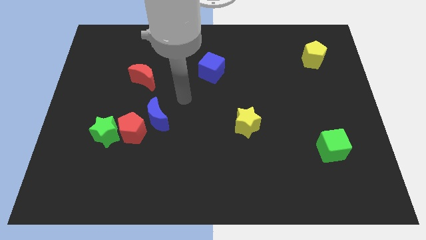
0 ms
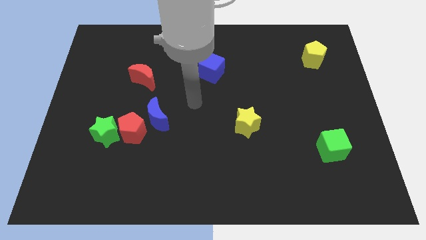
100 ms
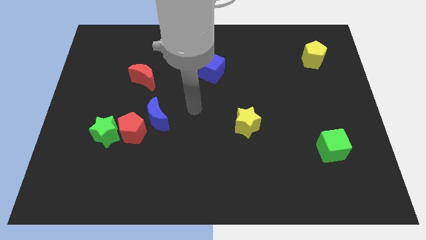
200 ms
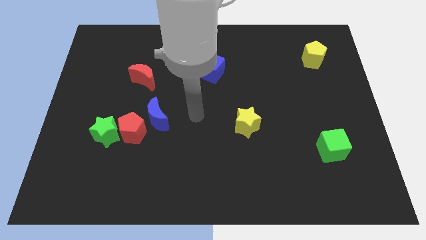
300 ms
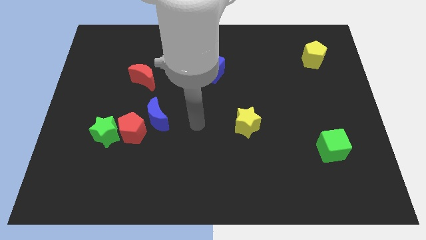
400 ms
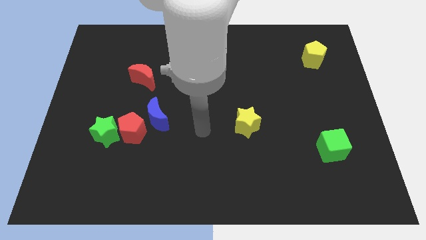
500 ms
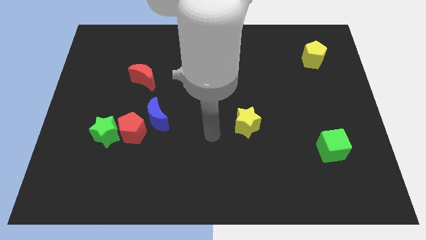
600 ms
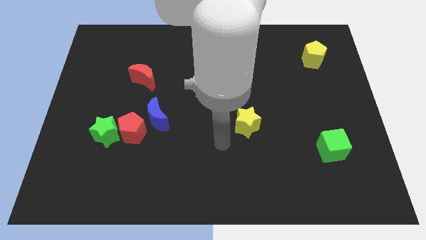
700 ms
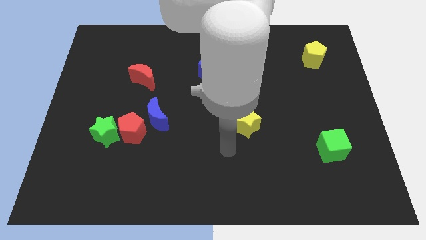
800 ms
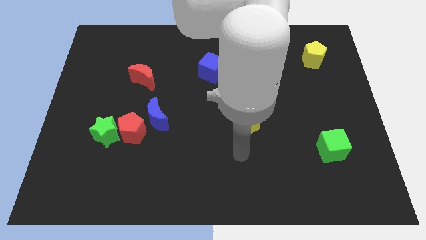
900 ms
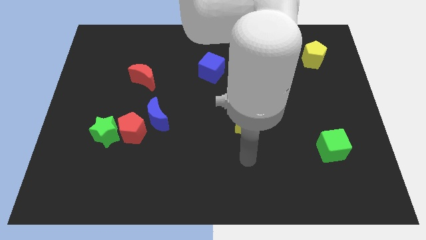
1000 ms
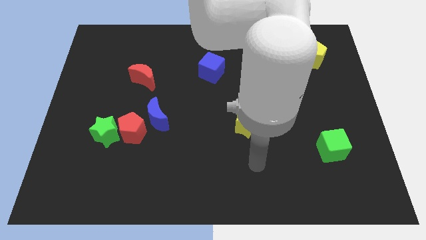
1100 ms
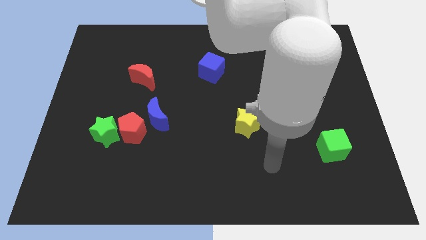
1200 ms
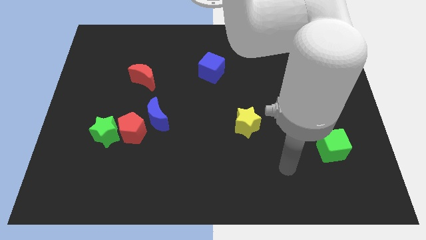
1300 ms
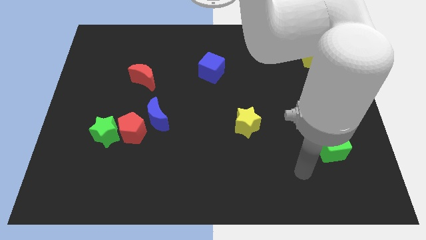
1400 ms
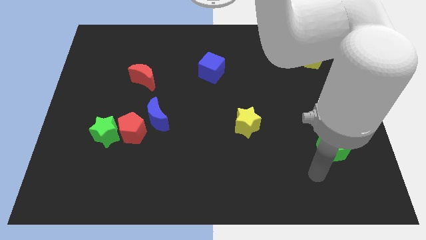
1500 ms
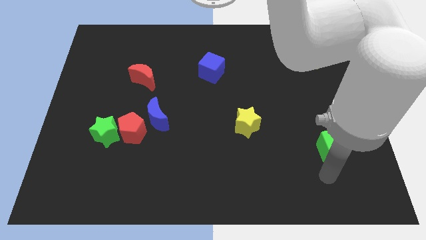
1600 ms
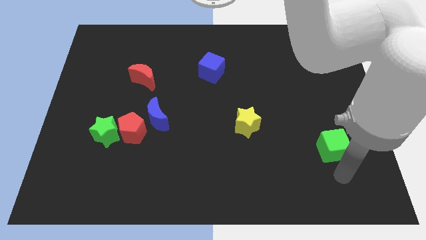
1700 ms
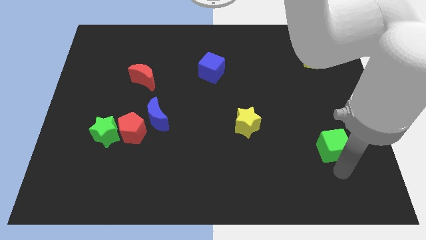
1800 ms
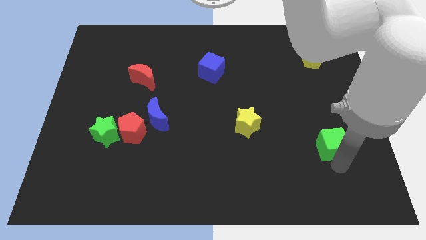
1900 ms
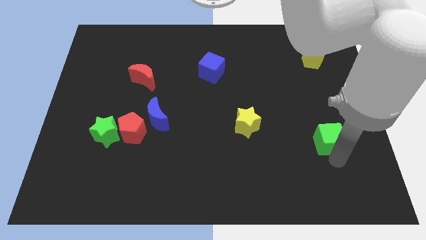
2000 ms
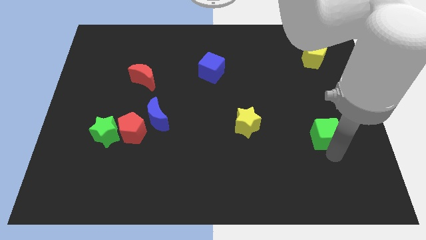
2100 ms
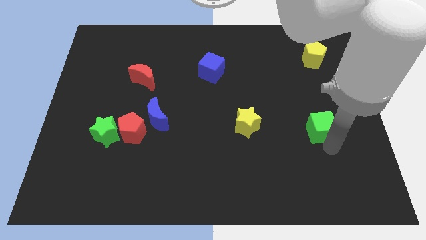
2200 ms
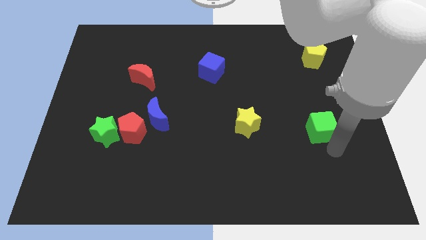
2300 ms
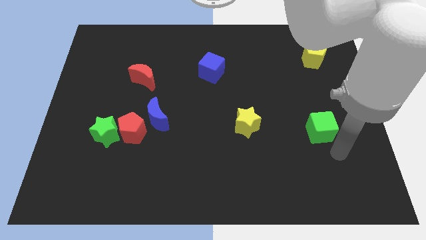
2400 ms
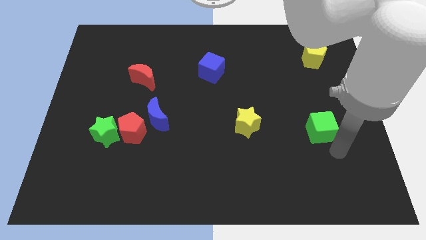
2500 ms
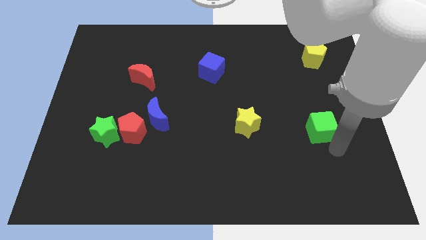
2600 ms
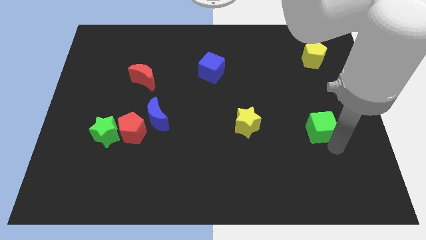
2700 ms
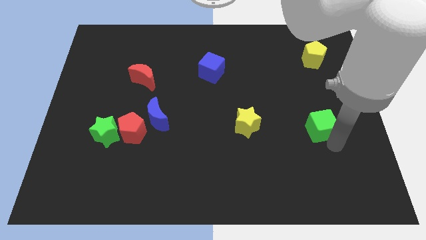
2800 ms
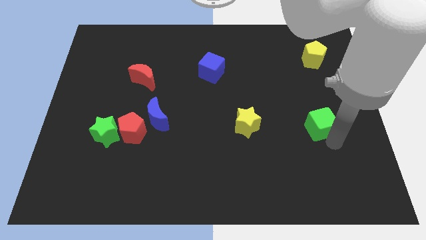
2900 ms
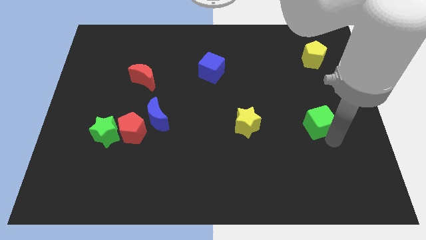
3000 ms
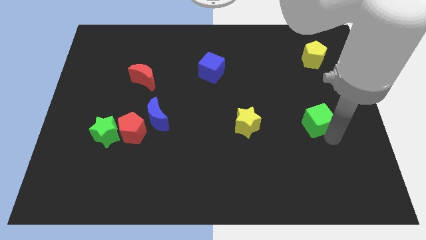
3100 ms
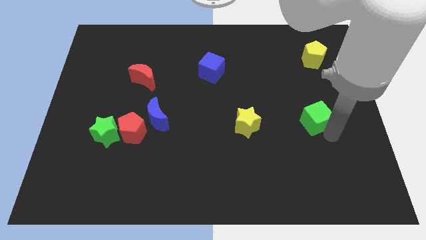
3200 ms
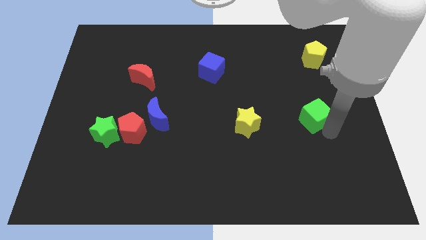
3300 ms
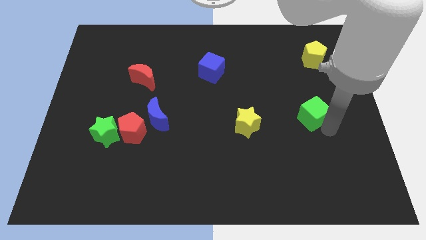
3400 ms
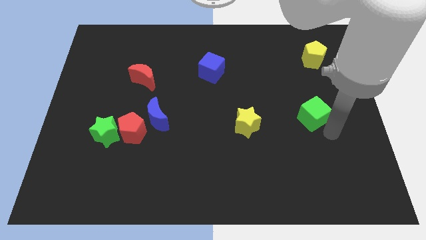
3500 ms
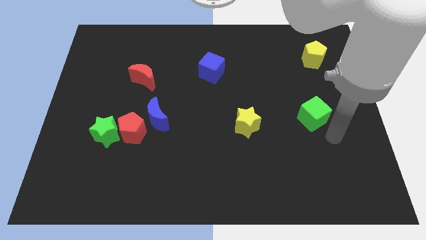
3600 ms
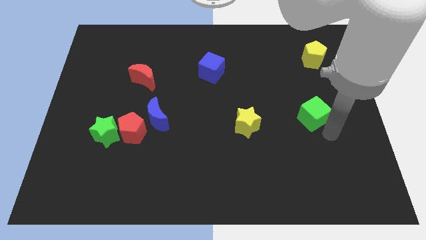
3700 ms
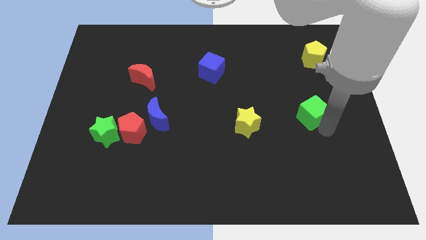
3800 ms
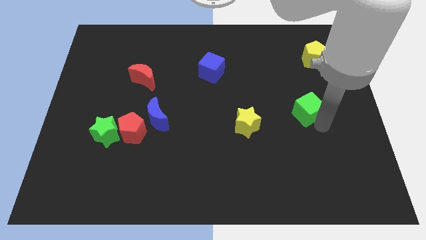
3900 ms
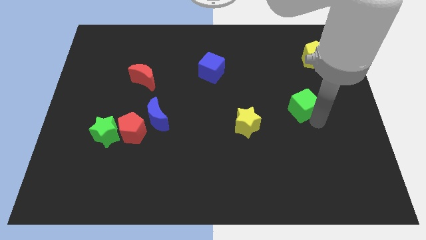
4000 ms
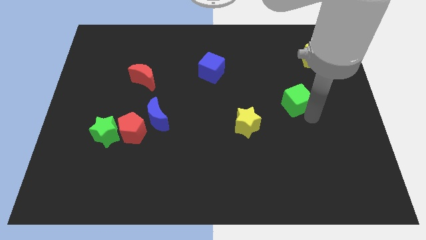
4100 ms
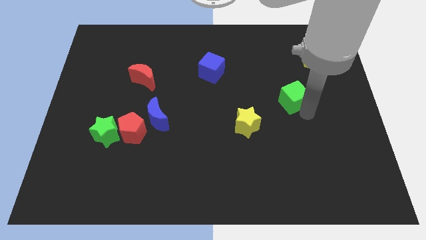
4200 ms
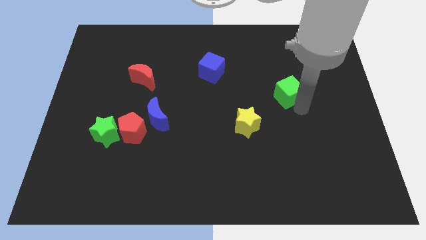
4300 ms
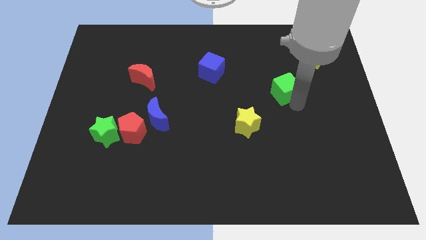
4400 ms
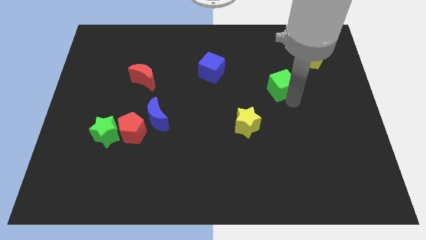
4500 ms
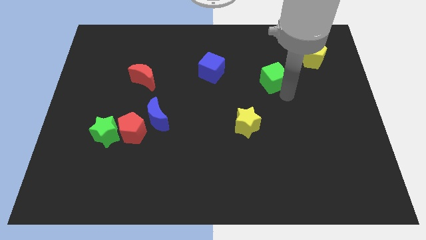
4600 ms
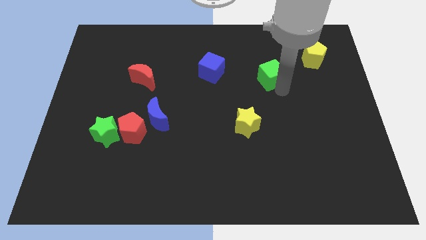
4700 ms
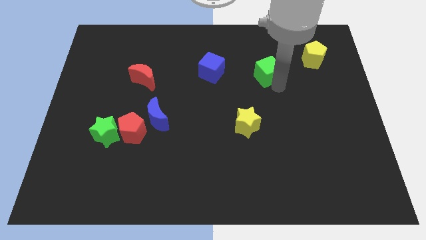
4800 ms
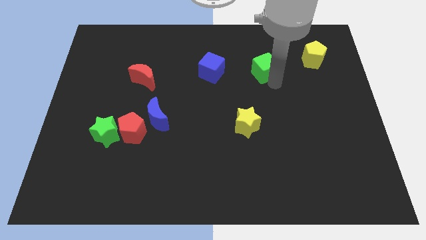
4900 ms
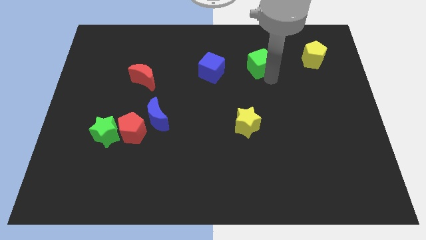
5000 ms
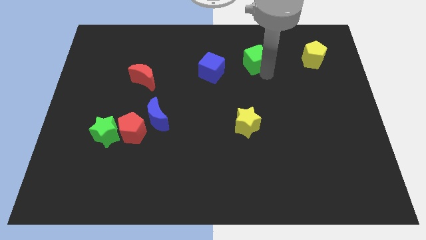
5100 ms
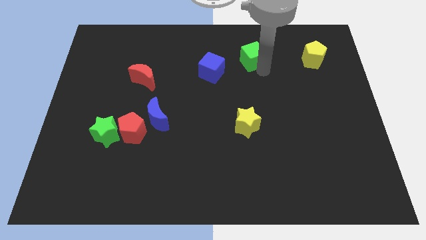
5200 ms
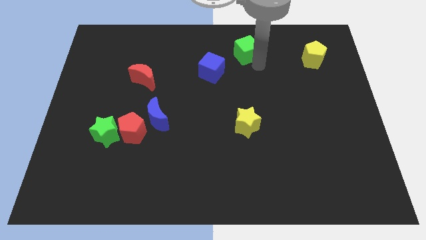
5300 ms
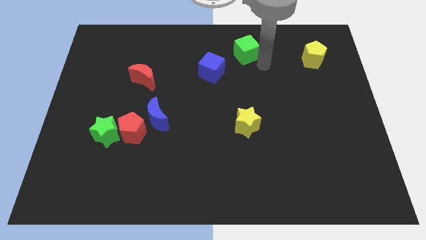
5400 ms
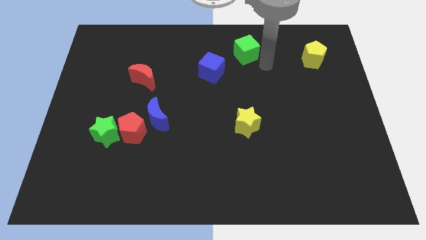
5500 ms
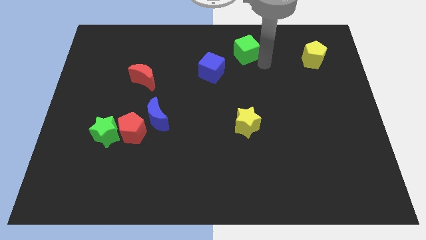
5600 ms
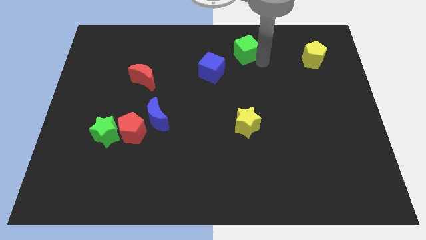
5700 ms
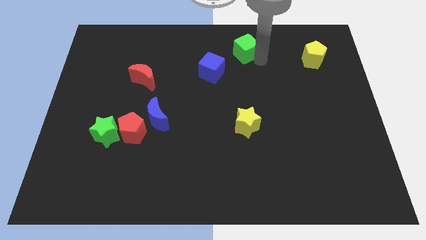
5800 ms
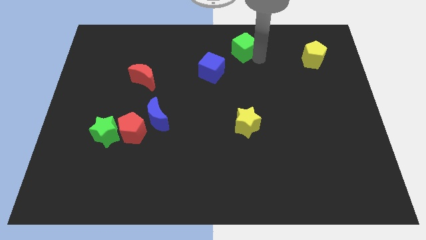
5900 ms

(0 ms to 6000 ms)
put the green cube to the top side

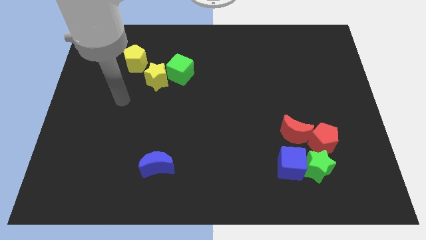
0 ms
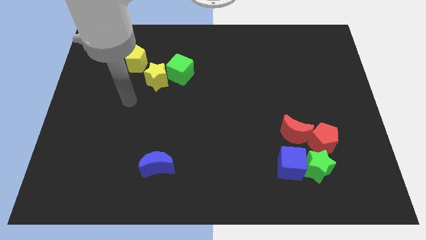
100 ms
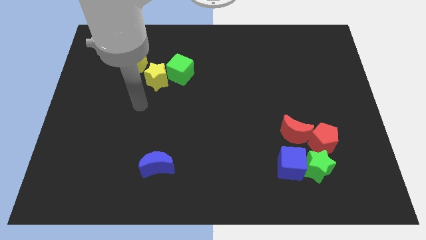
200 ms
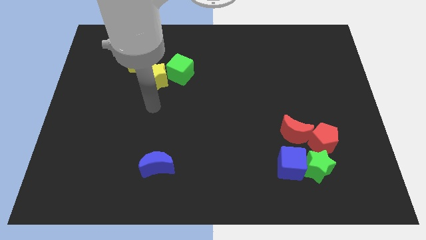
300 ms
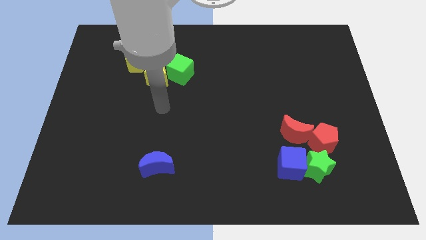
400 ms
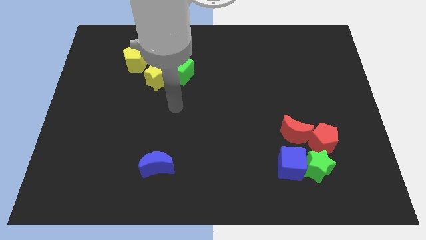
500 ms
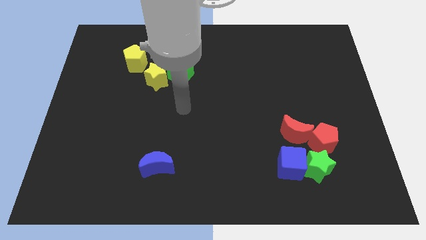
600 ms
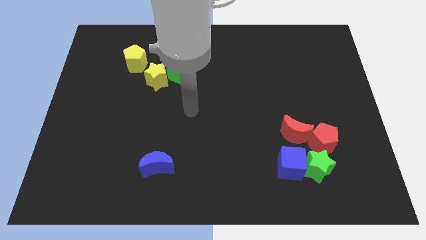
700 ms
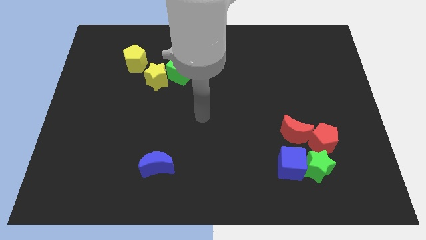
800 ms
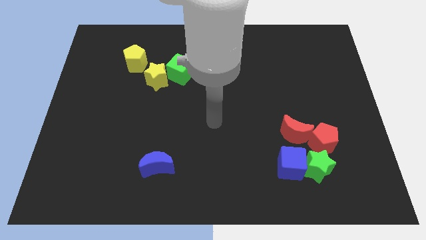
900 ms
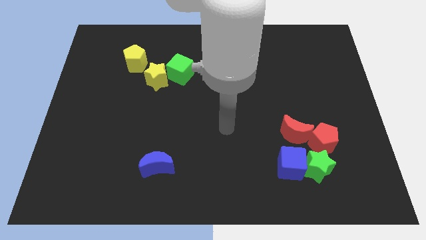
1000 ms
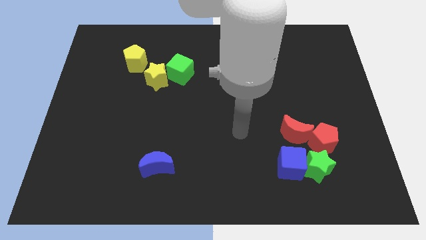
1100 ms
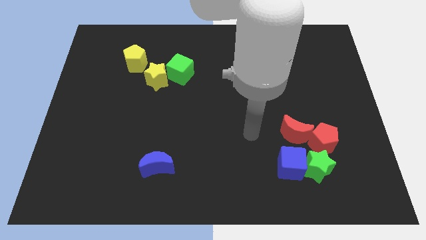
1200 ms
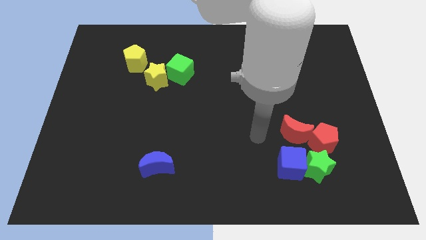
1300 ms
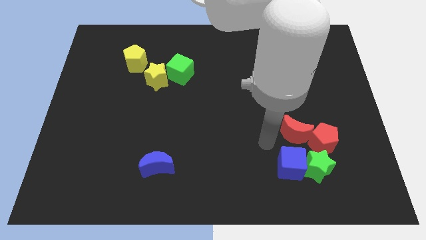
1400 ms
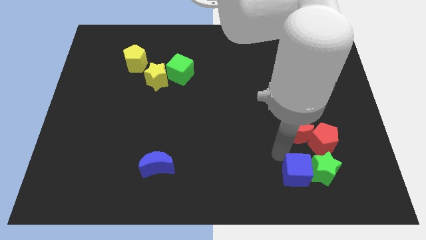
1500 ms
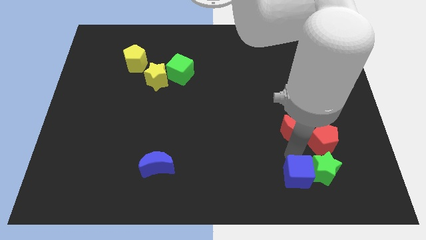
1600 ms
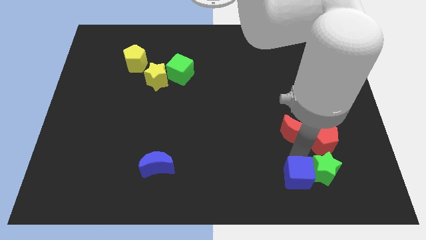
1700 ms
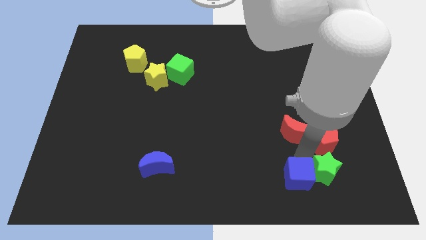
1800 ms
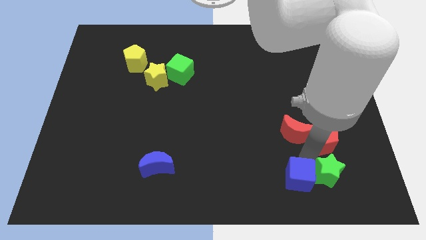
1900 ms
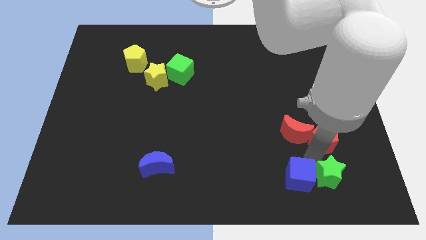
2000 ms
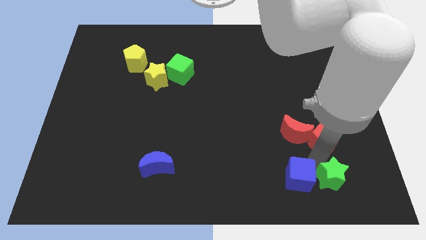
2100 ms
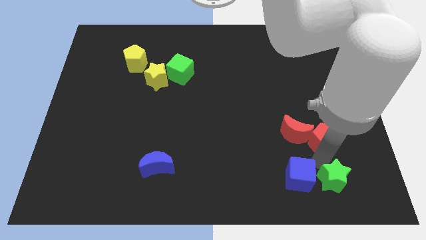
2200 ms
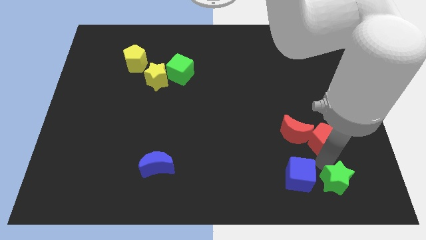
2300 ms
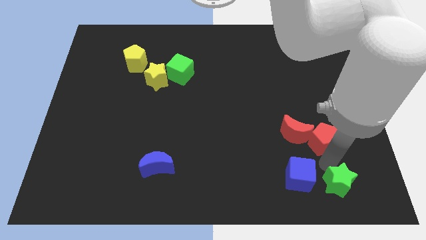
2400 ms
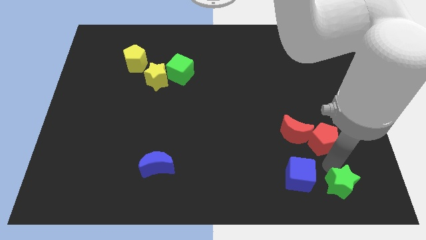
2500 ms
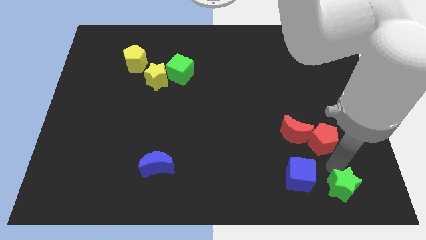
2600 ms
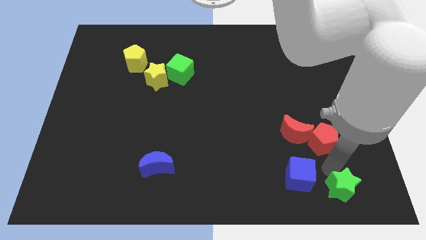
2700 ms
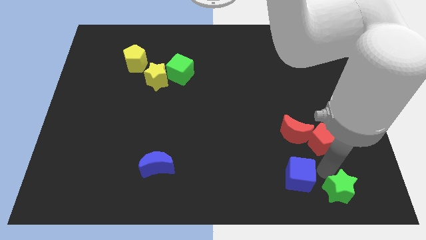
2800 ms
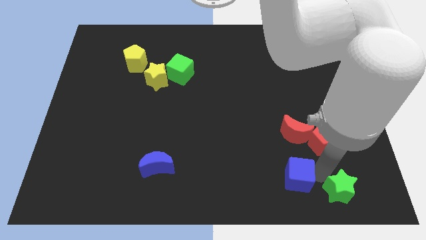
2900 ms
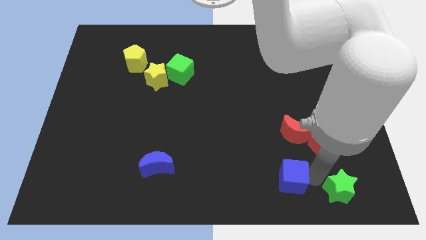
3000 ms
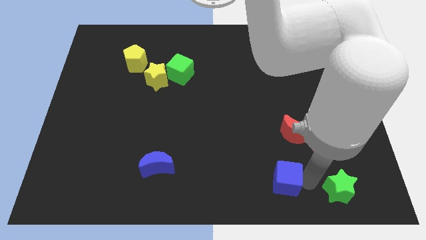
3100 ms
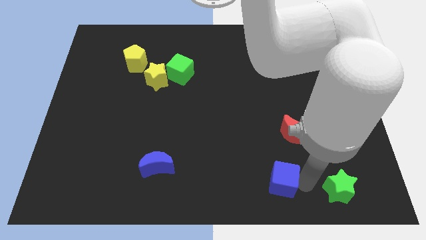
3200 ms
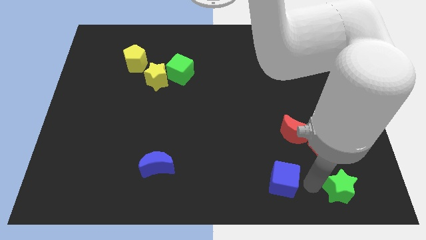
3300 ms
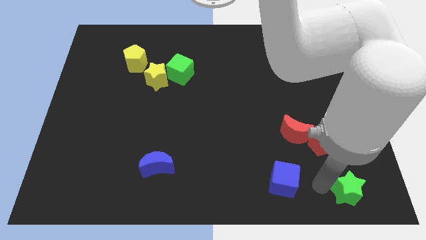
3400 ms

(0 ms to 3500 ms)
put the green star to the bottom right corner
